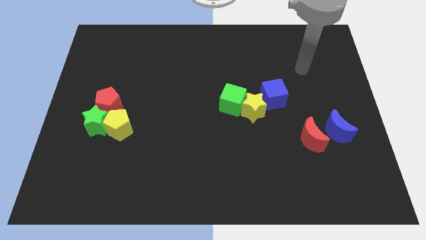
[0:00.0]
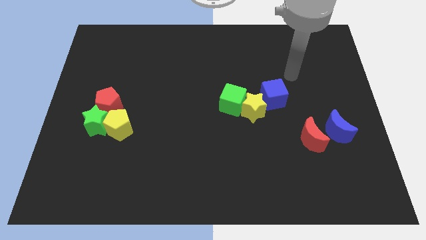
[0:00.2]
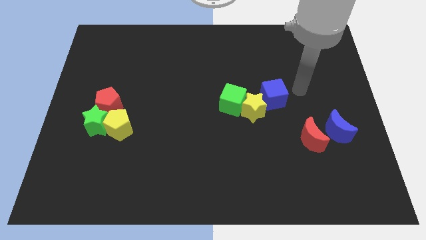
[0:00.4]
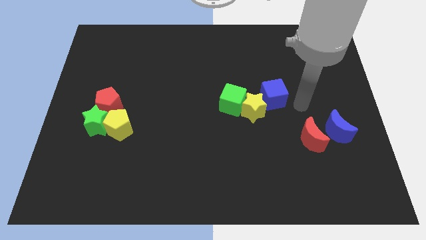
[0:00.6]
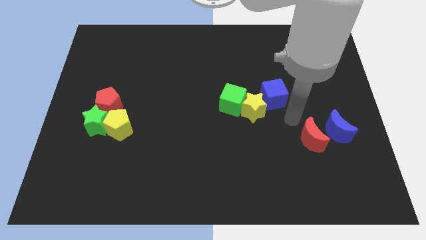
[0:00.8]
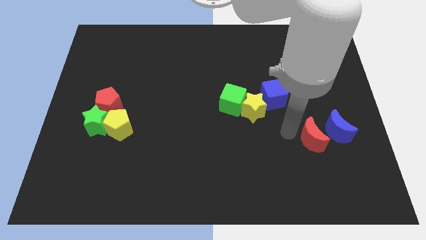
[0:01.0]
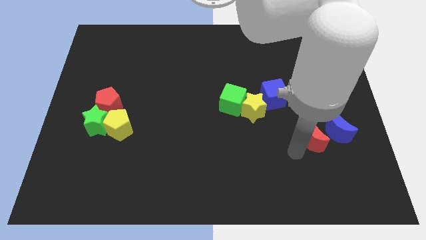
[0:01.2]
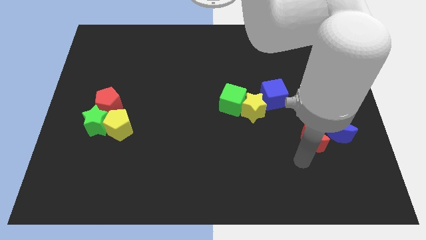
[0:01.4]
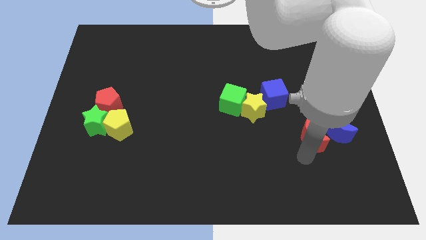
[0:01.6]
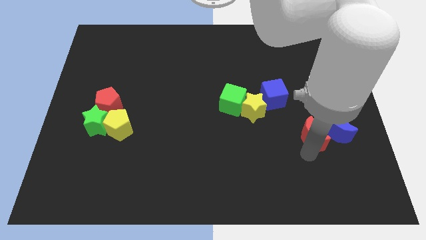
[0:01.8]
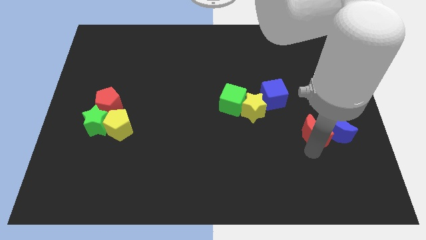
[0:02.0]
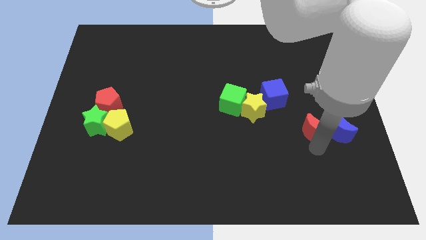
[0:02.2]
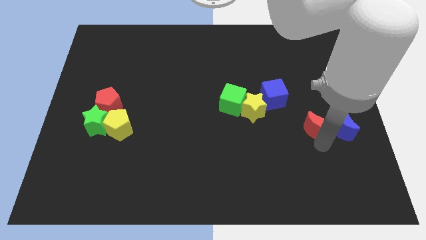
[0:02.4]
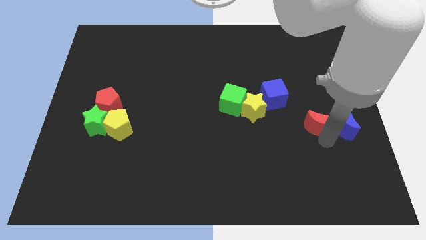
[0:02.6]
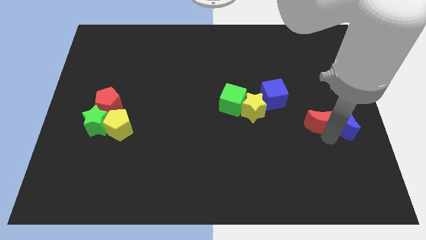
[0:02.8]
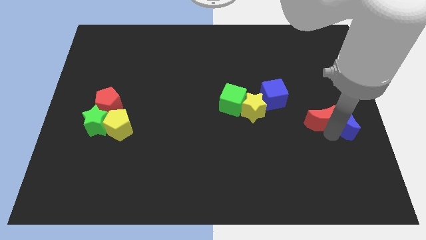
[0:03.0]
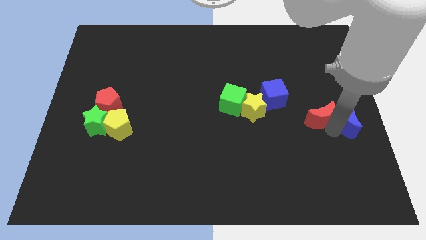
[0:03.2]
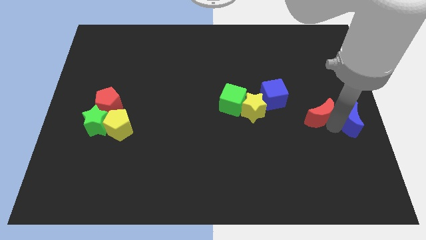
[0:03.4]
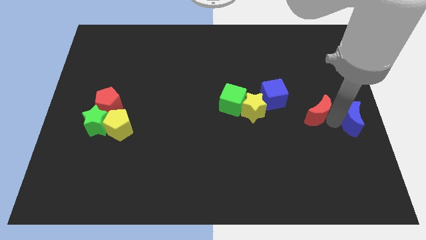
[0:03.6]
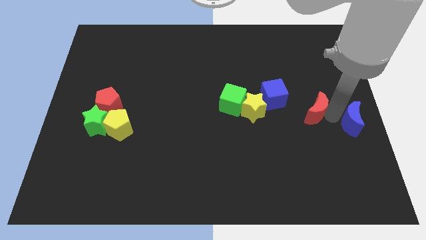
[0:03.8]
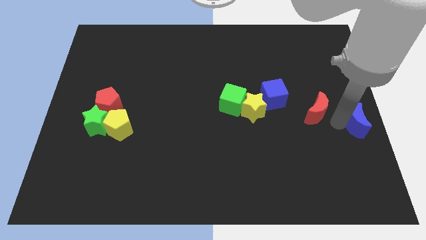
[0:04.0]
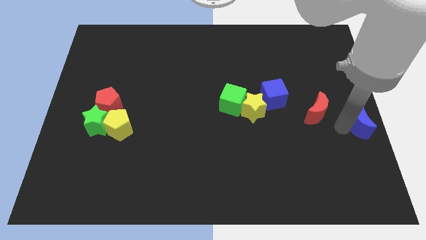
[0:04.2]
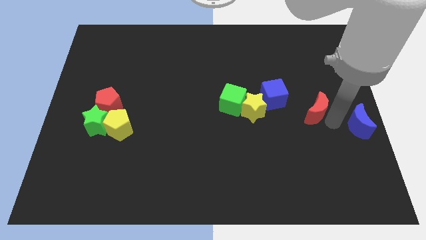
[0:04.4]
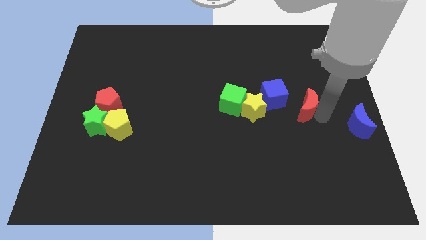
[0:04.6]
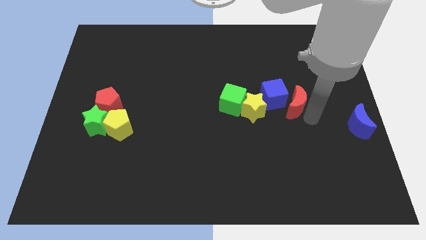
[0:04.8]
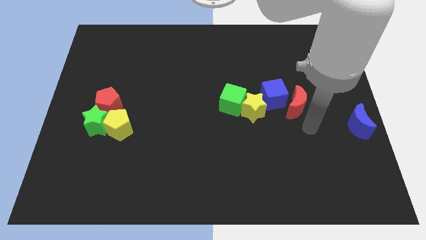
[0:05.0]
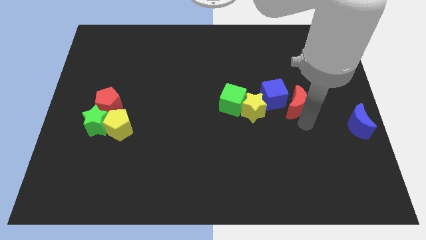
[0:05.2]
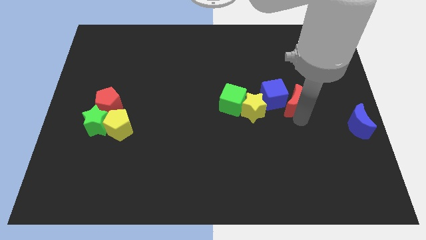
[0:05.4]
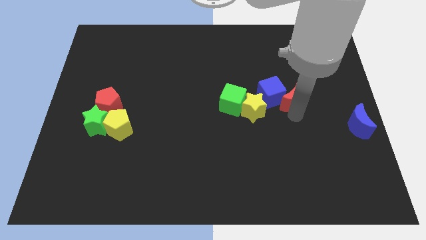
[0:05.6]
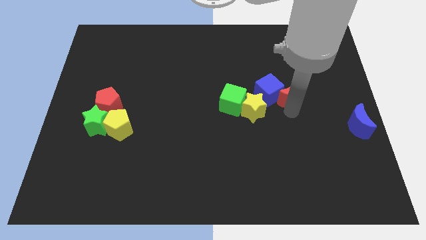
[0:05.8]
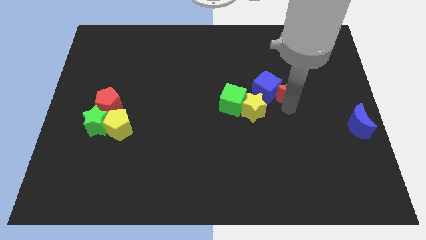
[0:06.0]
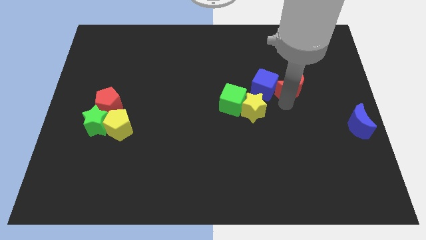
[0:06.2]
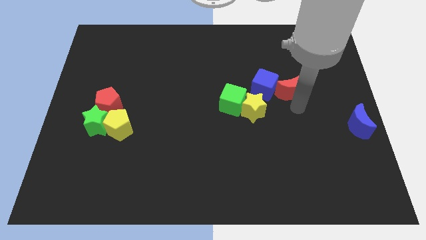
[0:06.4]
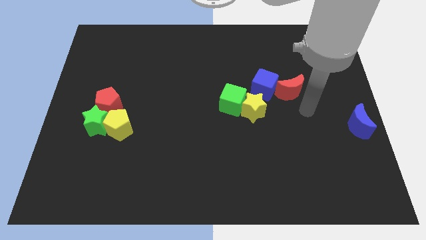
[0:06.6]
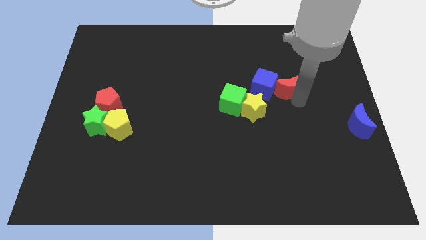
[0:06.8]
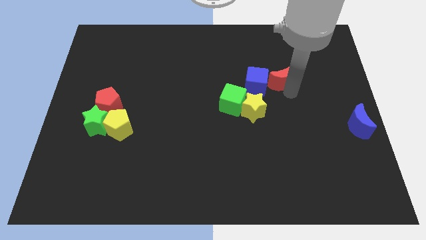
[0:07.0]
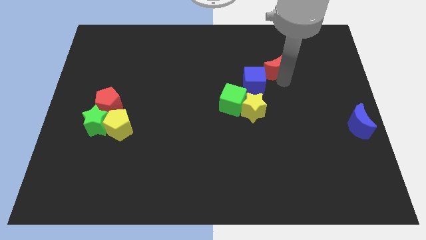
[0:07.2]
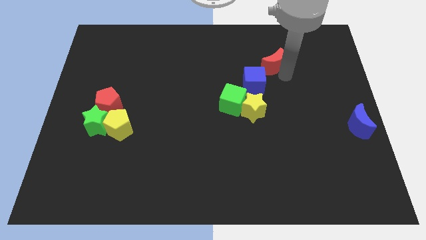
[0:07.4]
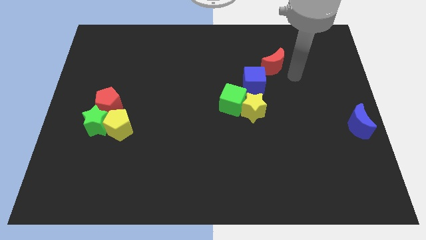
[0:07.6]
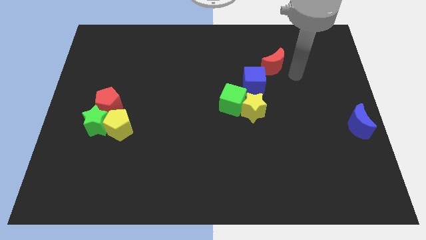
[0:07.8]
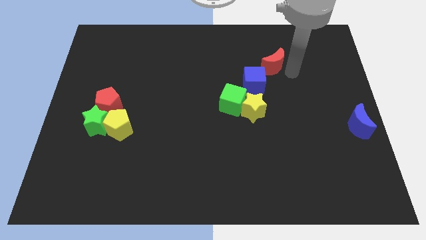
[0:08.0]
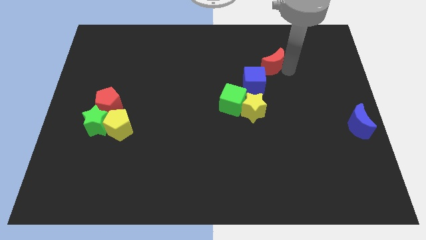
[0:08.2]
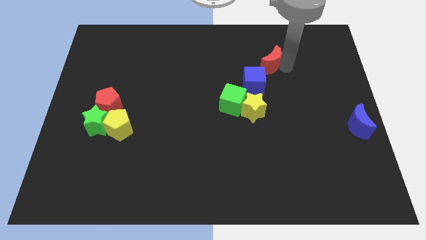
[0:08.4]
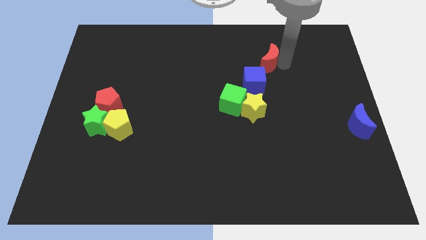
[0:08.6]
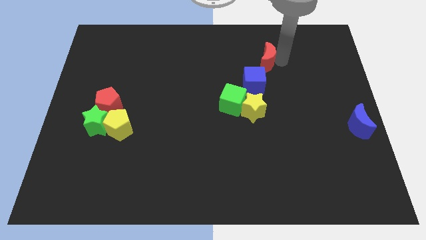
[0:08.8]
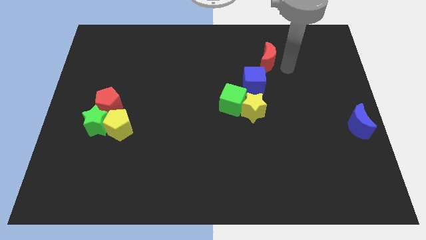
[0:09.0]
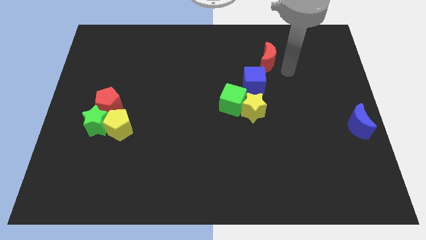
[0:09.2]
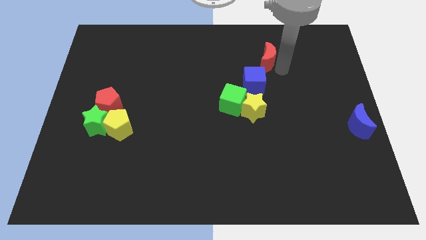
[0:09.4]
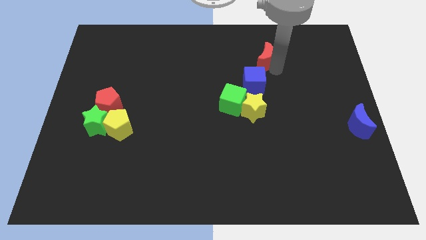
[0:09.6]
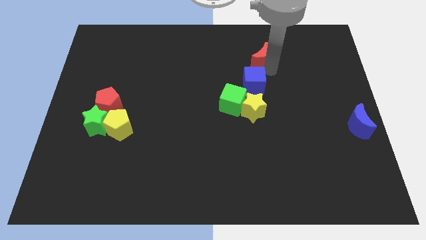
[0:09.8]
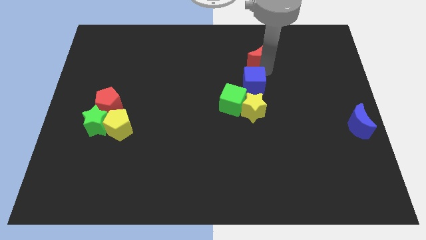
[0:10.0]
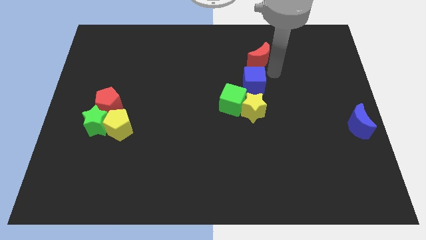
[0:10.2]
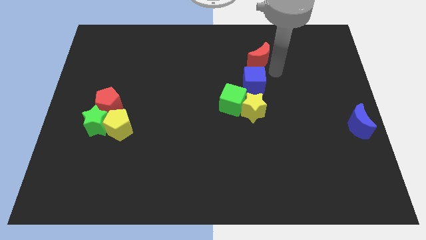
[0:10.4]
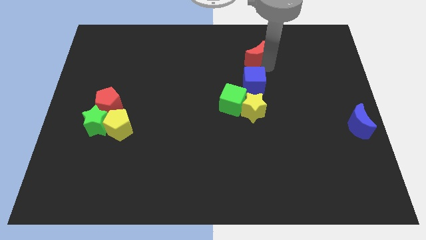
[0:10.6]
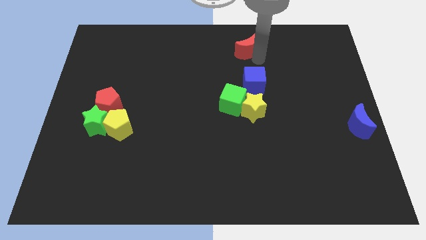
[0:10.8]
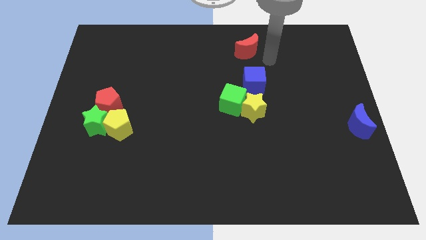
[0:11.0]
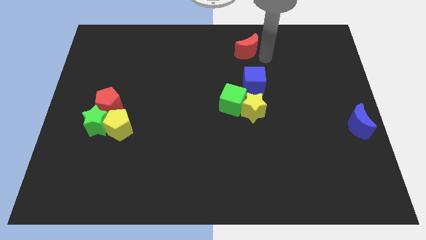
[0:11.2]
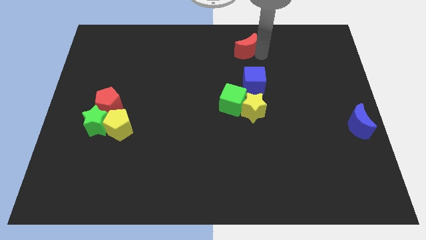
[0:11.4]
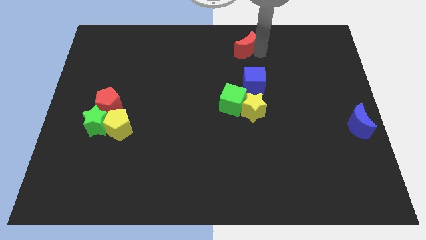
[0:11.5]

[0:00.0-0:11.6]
push the red moon to the top

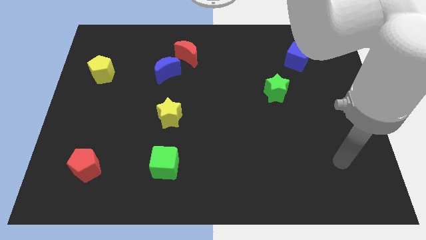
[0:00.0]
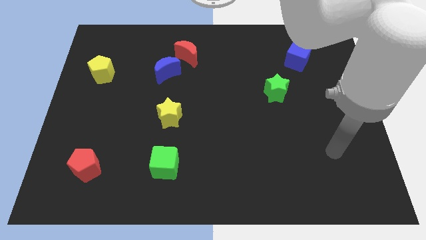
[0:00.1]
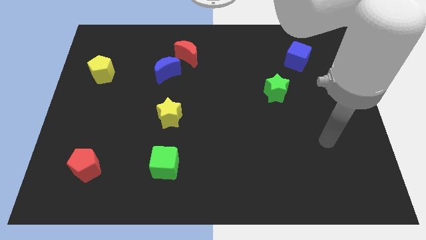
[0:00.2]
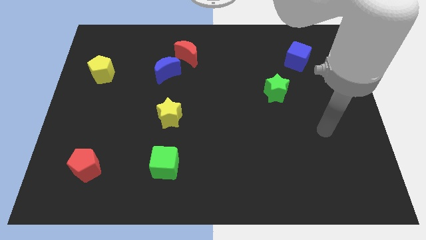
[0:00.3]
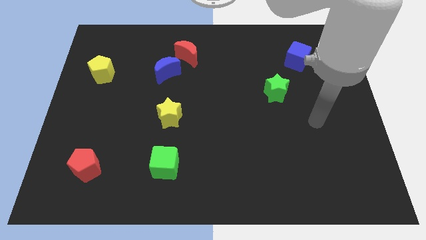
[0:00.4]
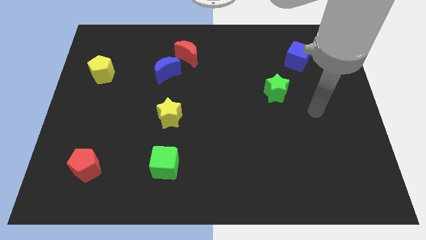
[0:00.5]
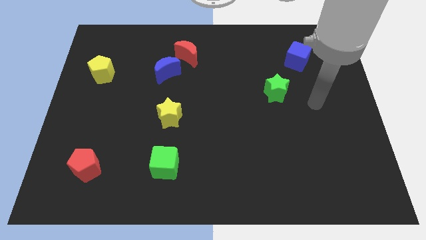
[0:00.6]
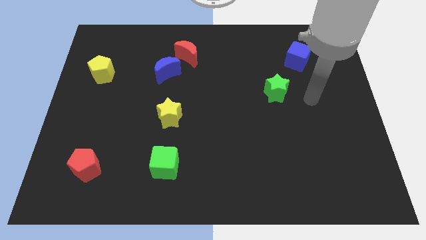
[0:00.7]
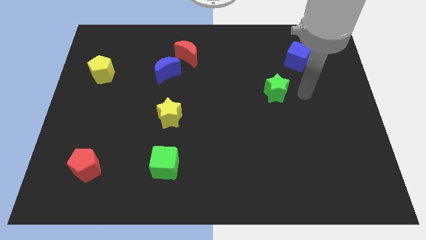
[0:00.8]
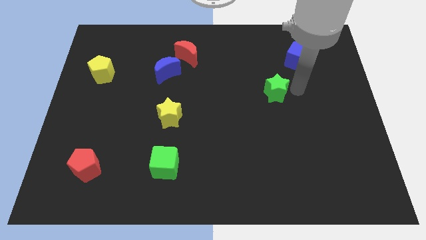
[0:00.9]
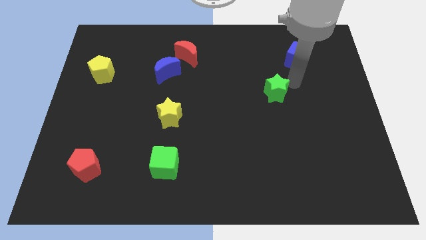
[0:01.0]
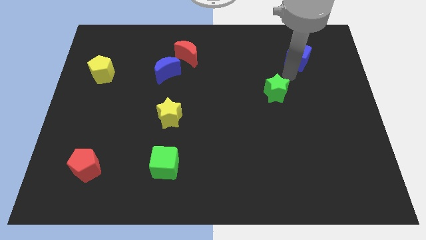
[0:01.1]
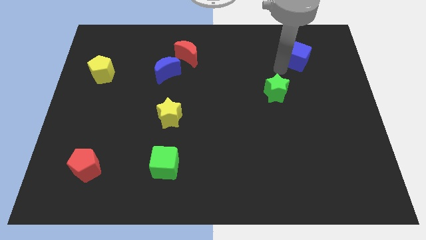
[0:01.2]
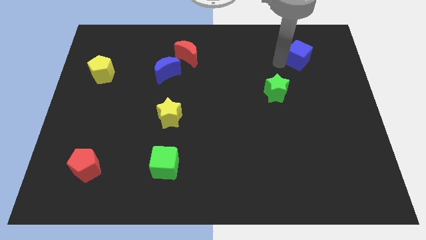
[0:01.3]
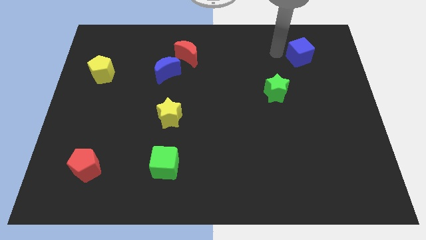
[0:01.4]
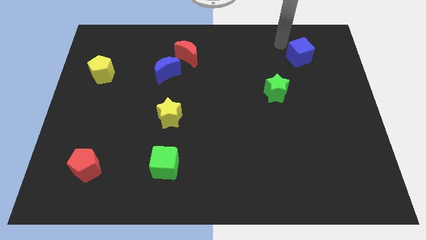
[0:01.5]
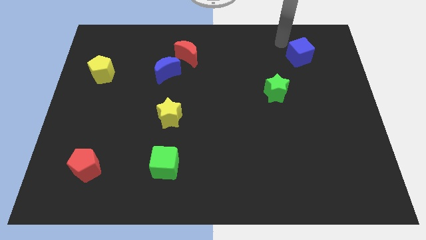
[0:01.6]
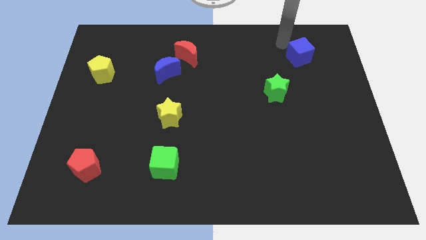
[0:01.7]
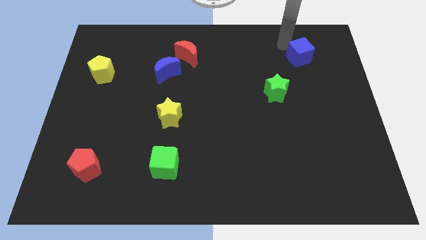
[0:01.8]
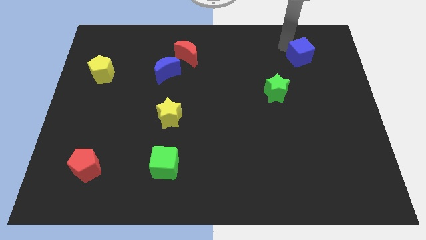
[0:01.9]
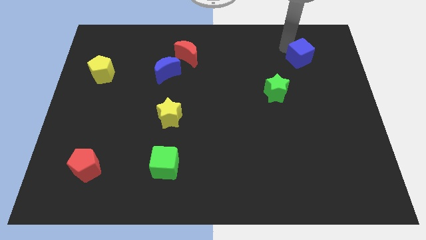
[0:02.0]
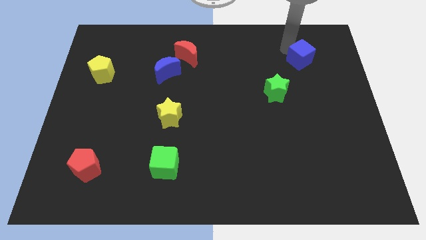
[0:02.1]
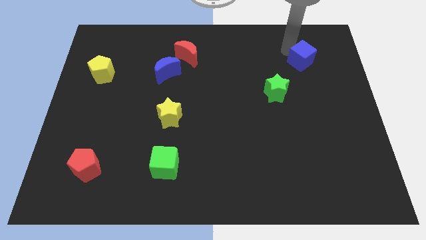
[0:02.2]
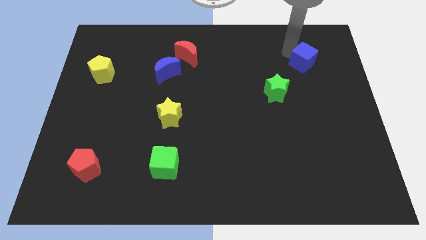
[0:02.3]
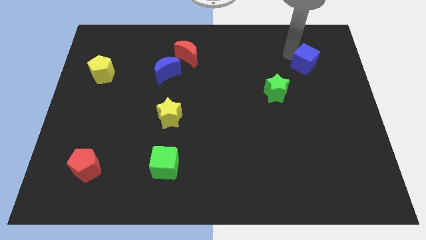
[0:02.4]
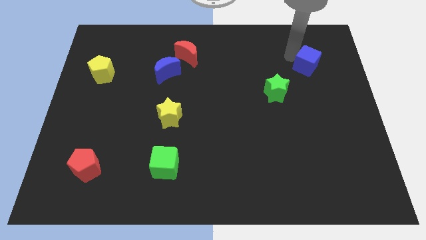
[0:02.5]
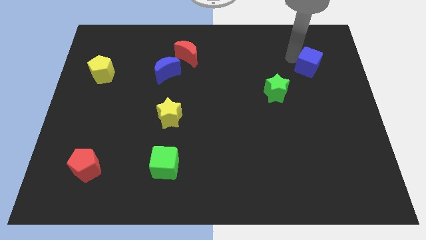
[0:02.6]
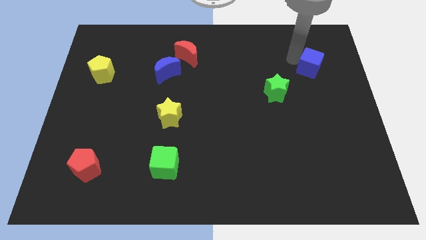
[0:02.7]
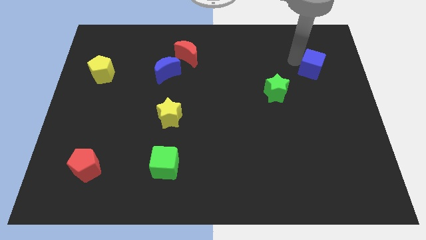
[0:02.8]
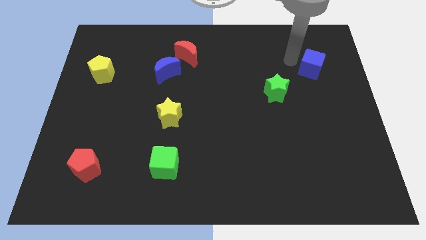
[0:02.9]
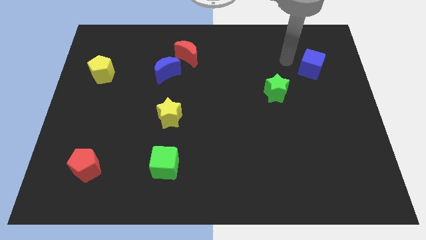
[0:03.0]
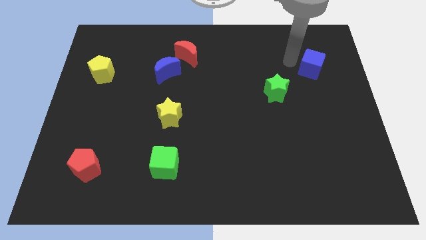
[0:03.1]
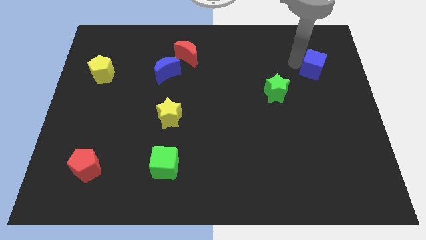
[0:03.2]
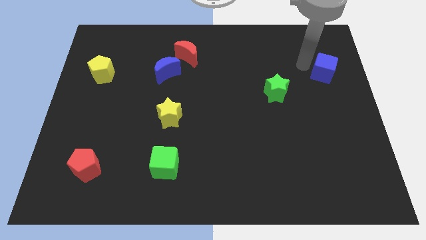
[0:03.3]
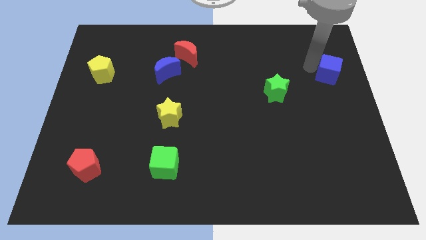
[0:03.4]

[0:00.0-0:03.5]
slide the blue cube to the right side
